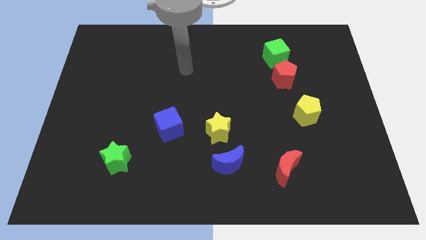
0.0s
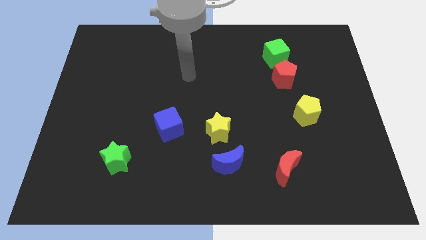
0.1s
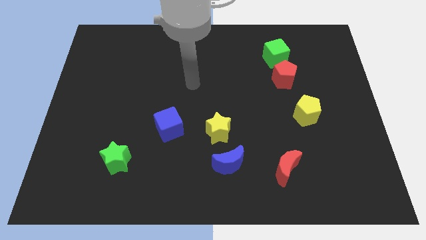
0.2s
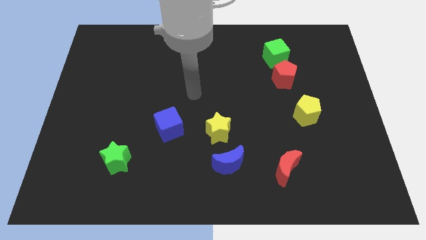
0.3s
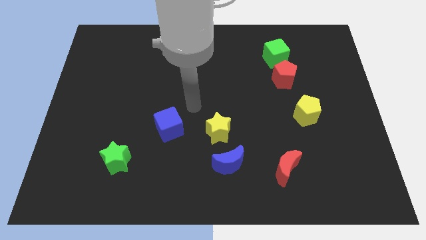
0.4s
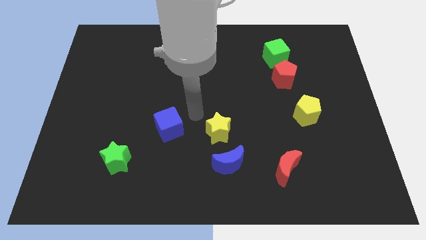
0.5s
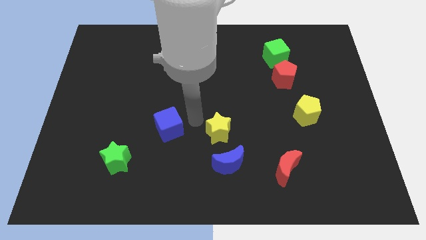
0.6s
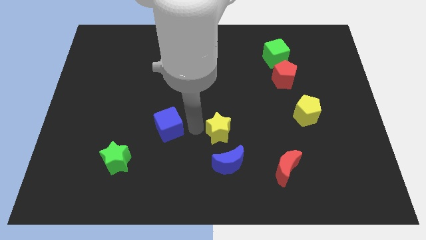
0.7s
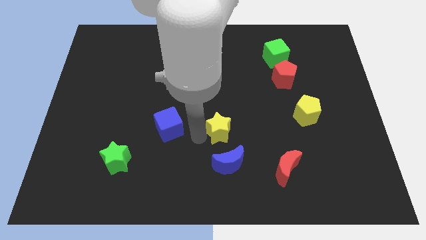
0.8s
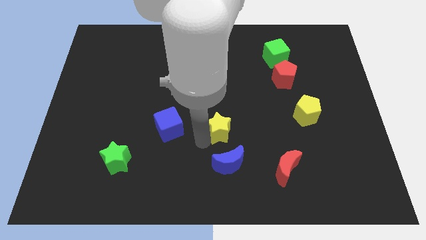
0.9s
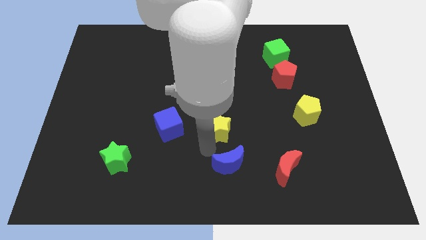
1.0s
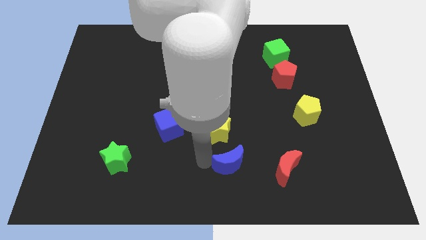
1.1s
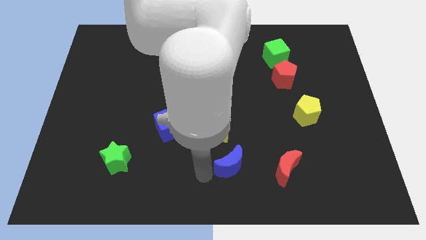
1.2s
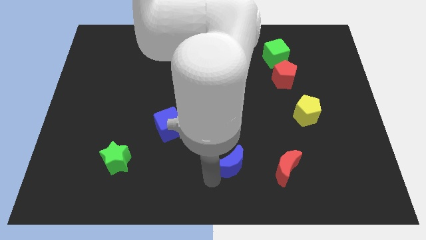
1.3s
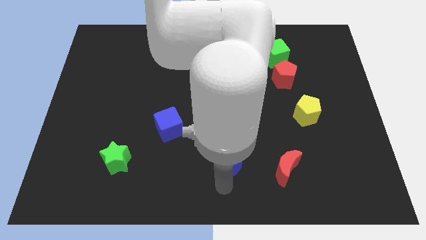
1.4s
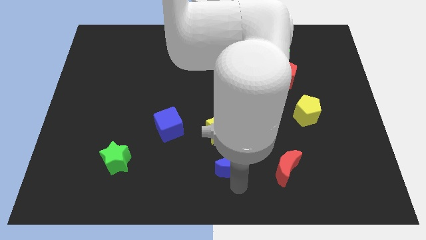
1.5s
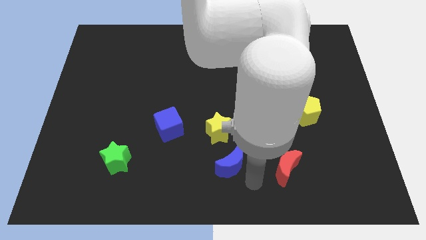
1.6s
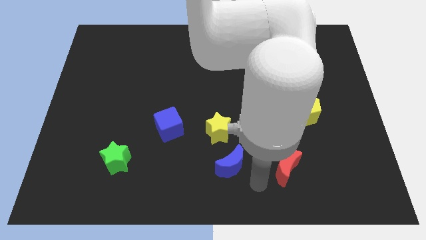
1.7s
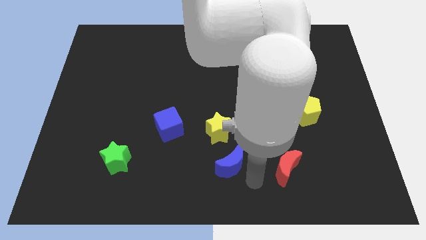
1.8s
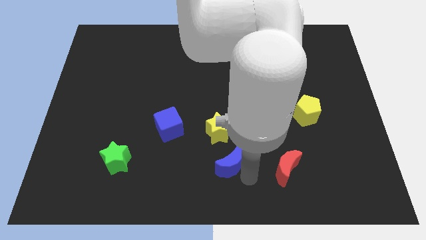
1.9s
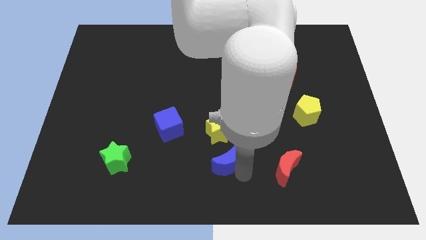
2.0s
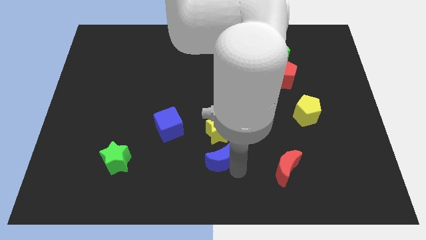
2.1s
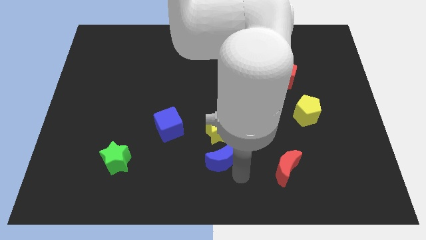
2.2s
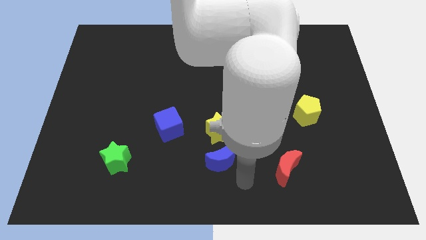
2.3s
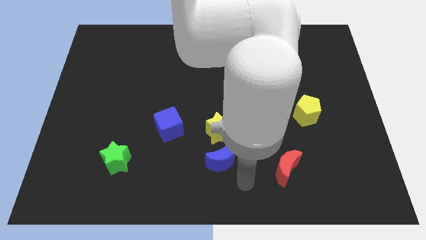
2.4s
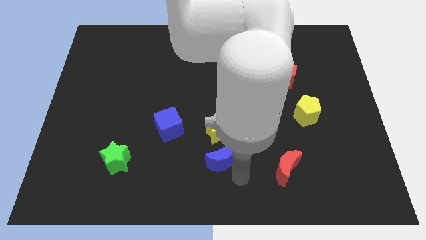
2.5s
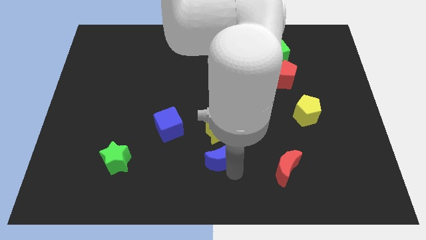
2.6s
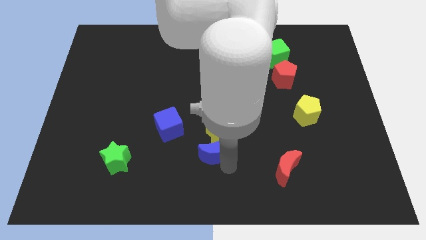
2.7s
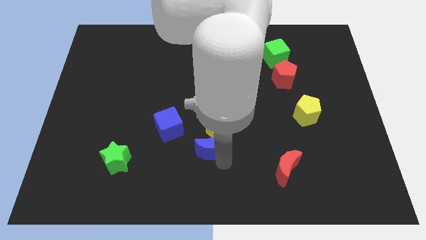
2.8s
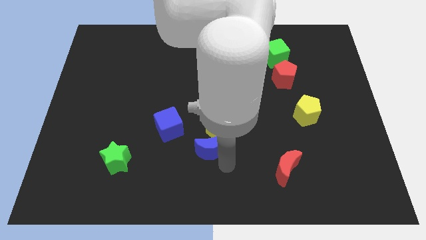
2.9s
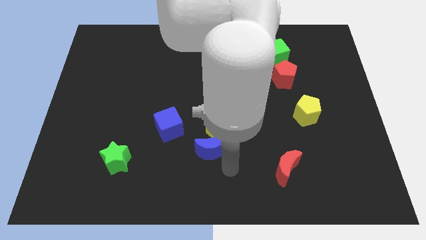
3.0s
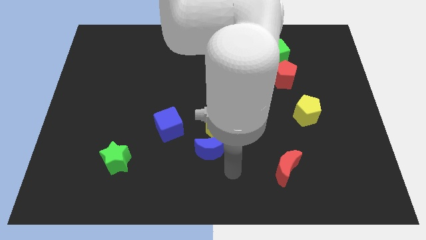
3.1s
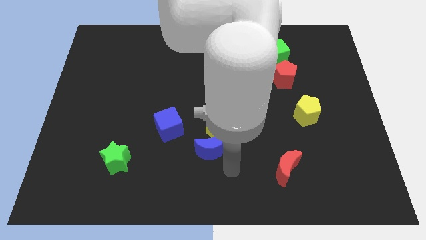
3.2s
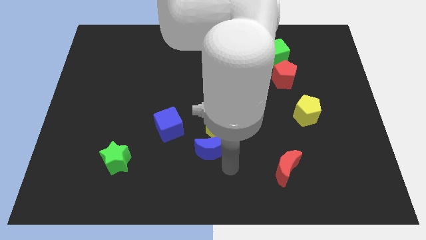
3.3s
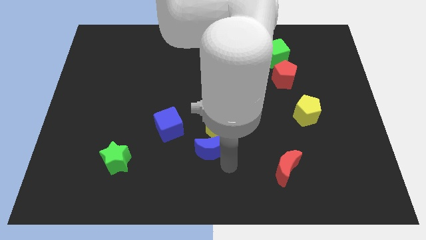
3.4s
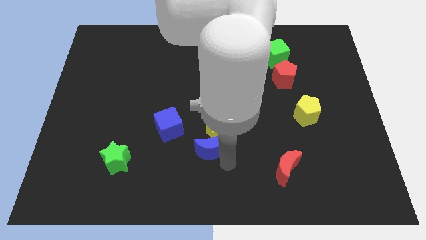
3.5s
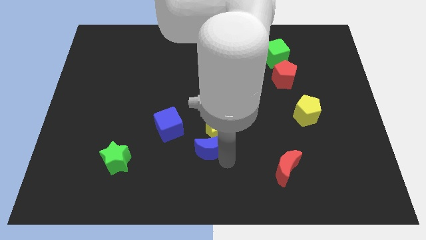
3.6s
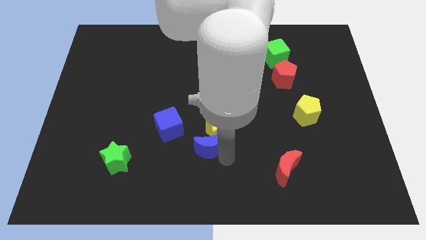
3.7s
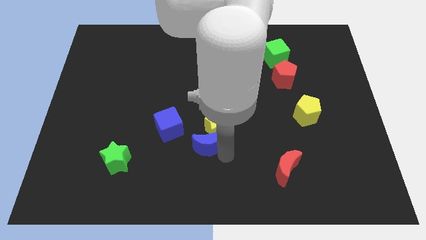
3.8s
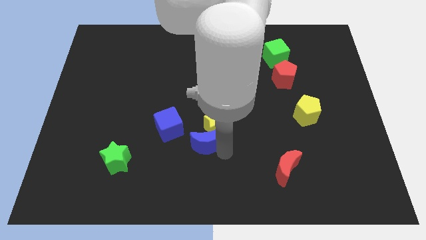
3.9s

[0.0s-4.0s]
push the blue moon a little bit up and left diagonally

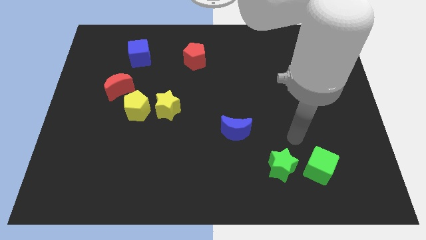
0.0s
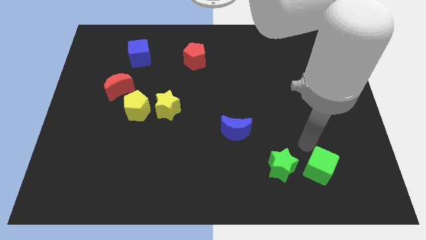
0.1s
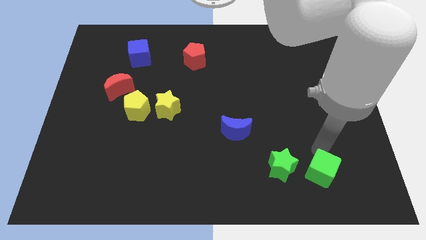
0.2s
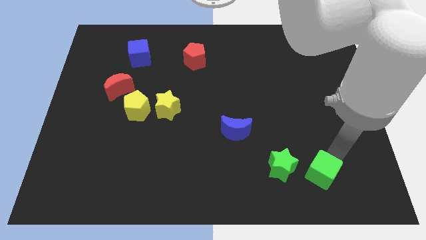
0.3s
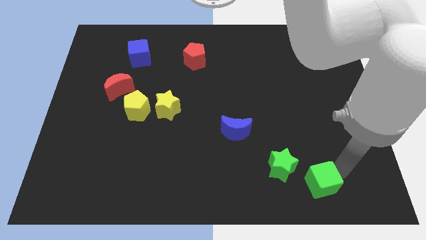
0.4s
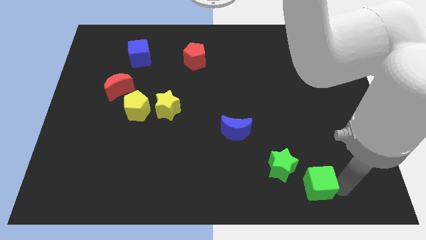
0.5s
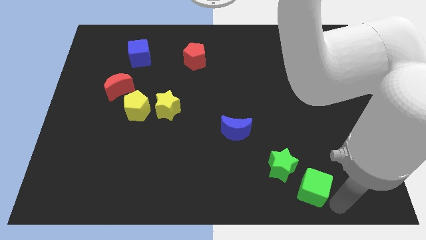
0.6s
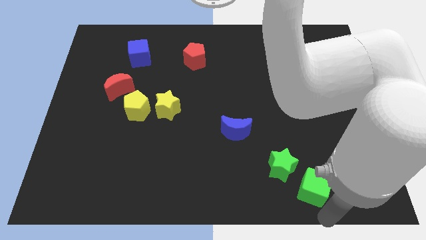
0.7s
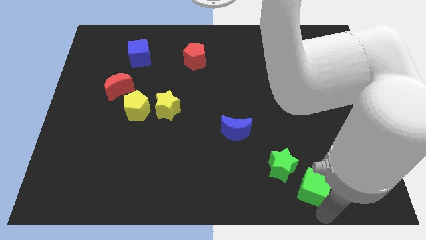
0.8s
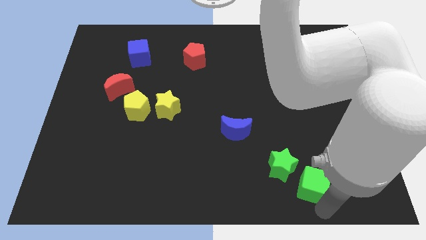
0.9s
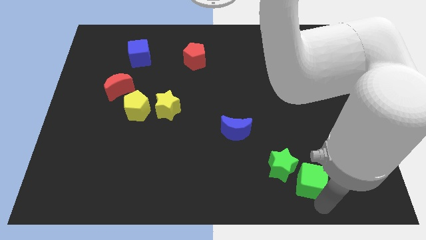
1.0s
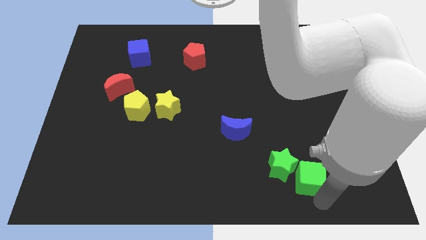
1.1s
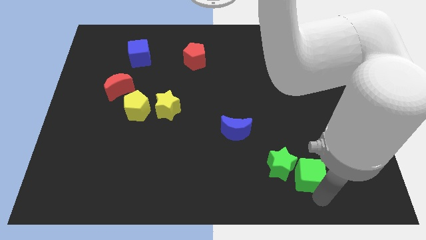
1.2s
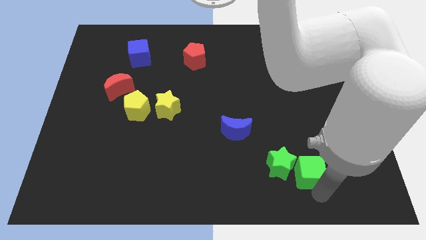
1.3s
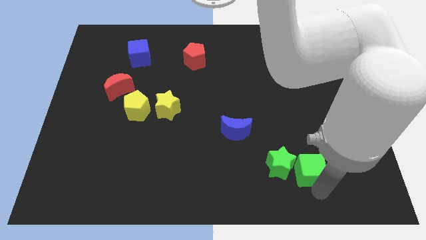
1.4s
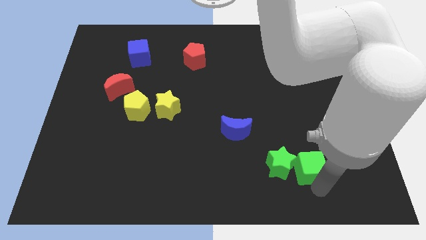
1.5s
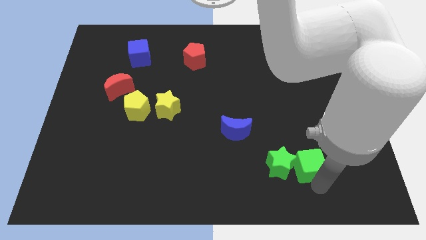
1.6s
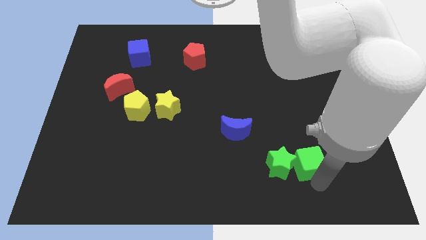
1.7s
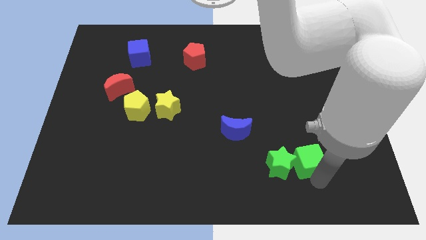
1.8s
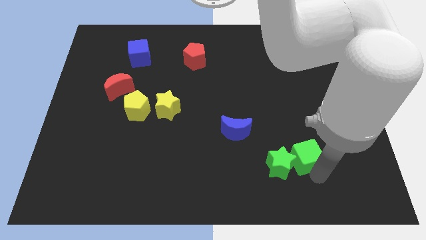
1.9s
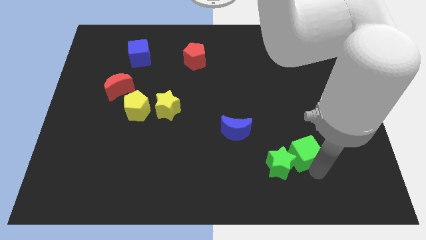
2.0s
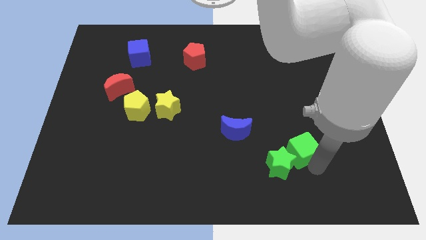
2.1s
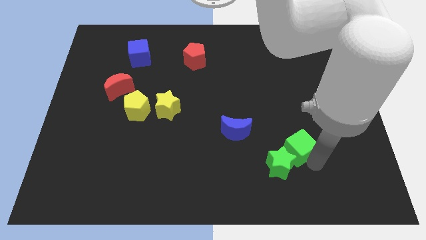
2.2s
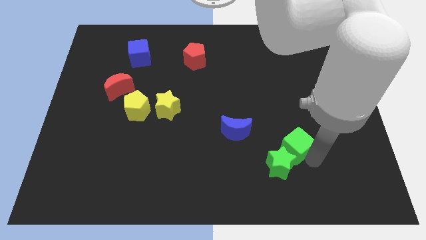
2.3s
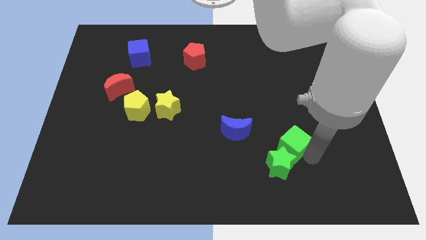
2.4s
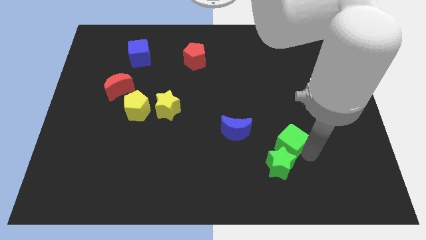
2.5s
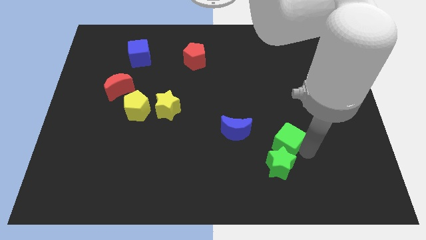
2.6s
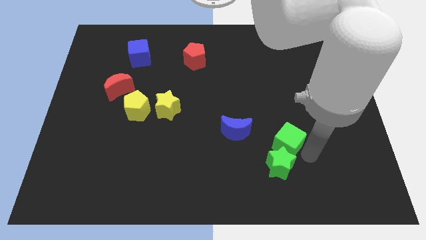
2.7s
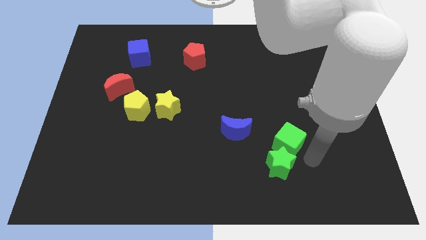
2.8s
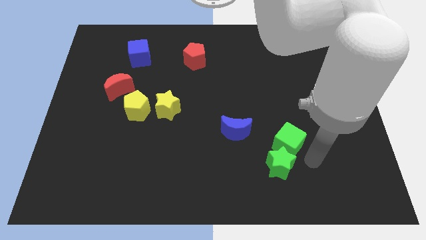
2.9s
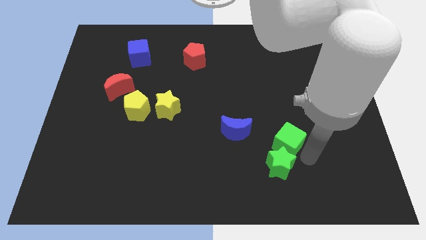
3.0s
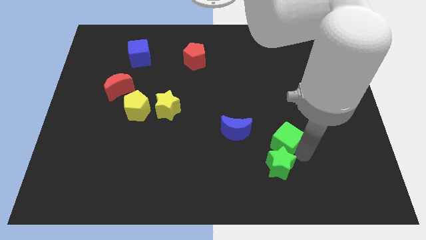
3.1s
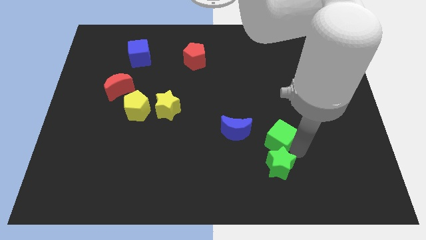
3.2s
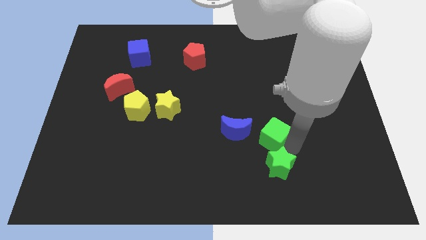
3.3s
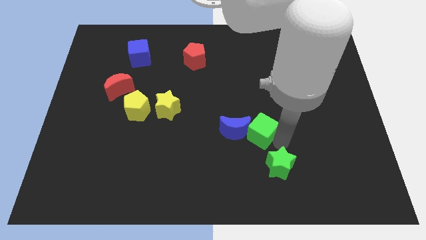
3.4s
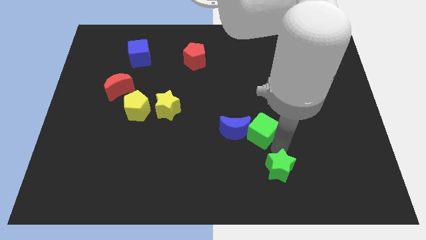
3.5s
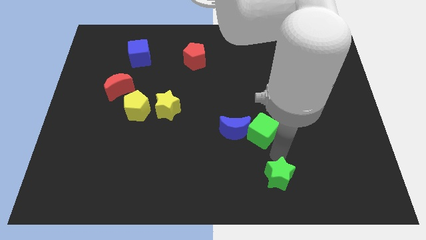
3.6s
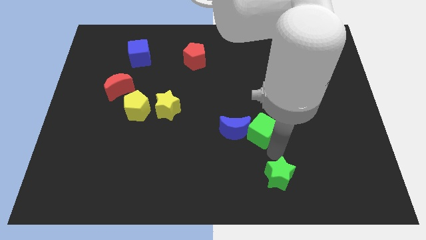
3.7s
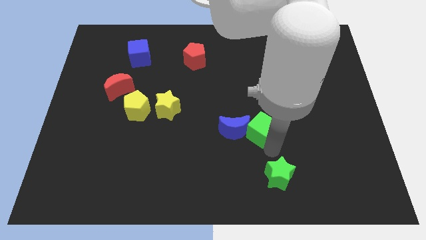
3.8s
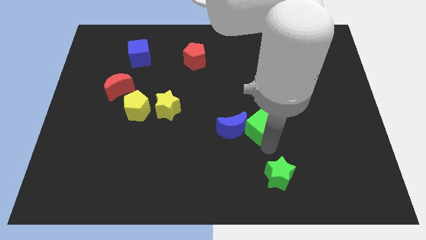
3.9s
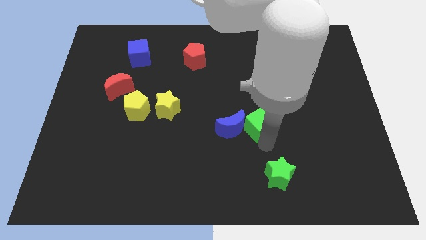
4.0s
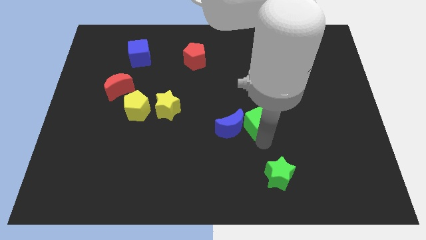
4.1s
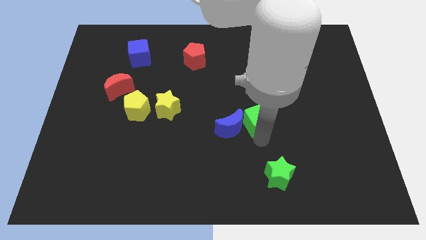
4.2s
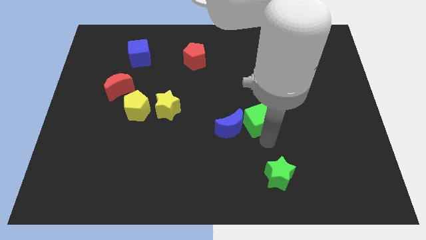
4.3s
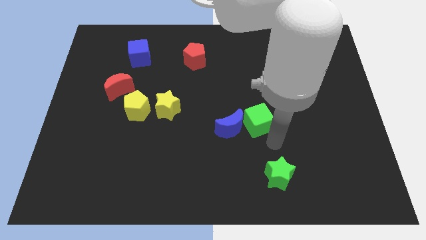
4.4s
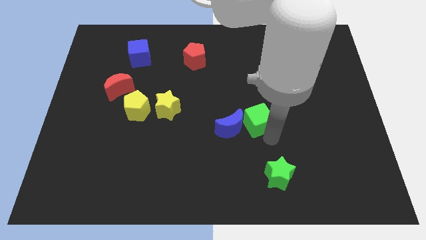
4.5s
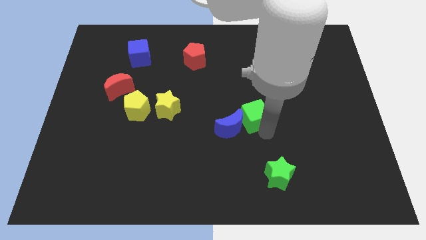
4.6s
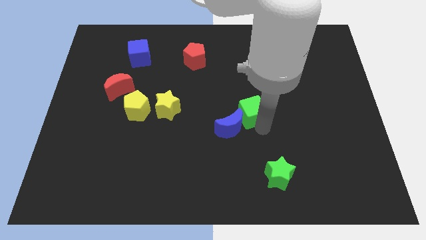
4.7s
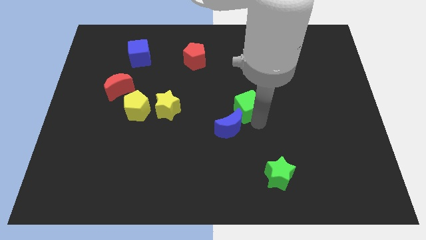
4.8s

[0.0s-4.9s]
move the green cube upwards and to the left diagonally
